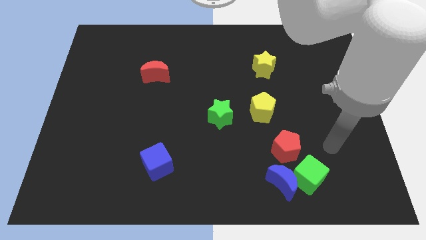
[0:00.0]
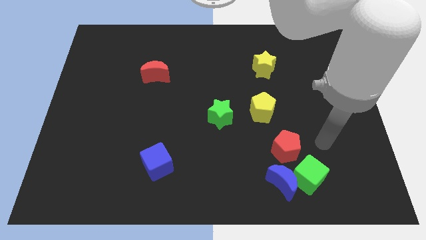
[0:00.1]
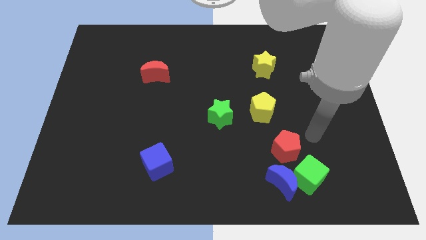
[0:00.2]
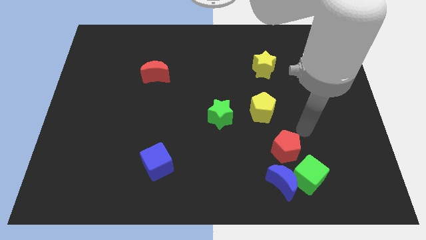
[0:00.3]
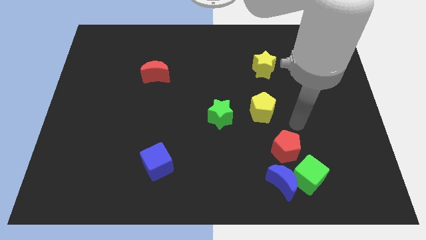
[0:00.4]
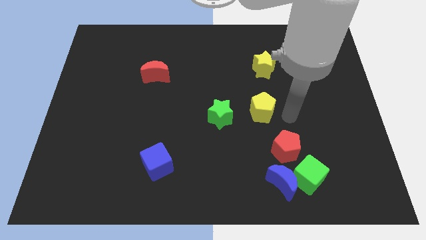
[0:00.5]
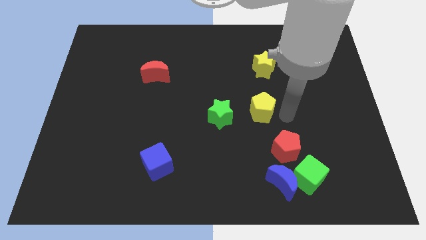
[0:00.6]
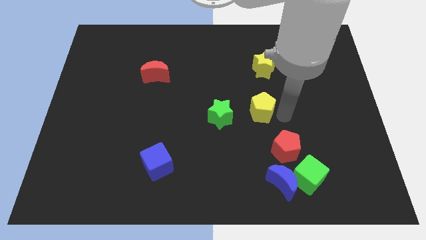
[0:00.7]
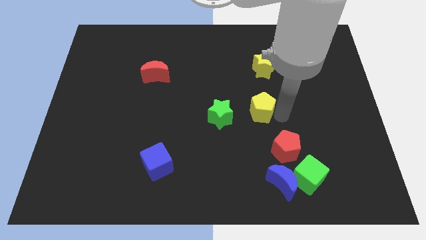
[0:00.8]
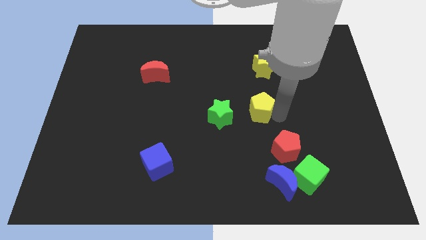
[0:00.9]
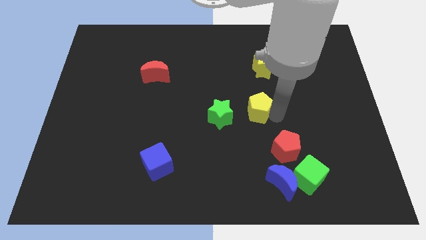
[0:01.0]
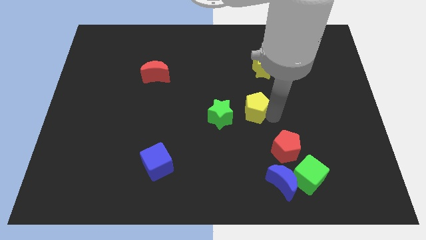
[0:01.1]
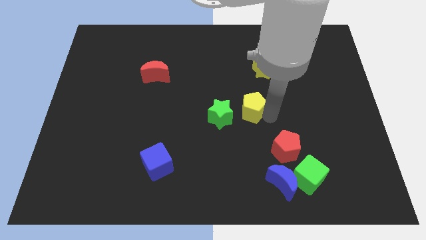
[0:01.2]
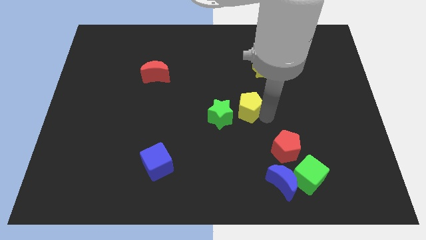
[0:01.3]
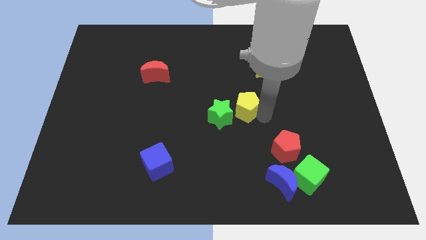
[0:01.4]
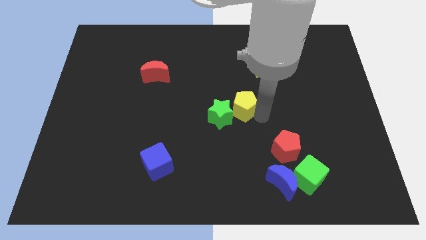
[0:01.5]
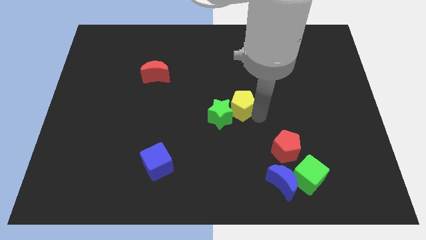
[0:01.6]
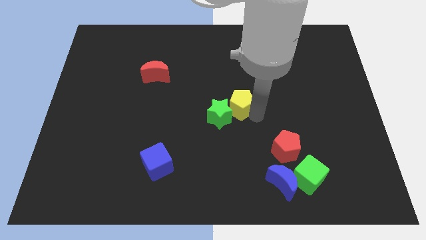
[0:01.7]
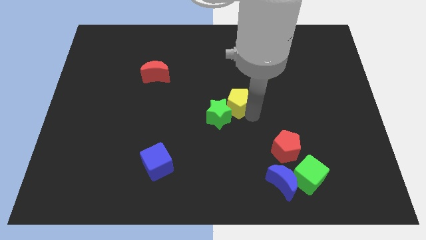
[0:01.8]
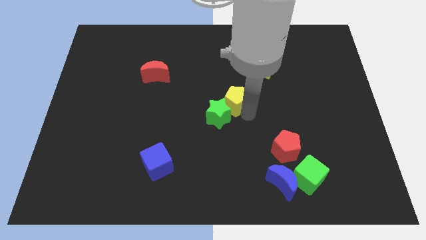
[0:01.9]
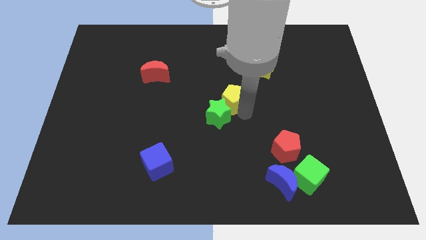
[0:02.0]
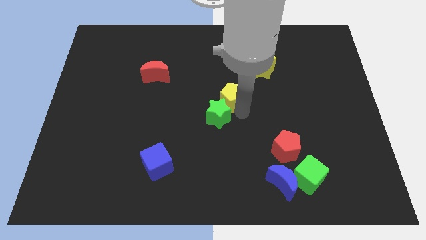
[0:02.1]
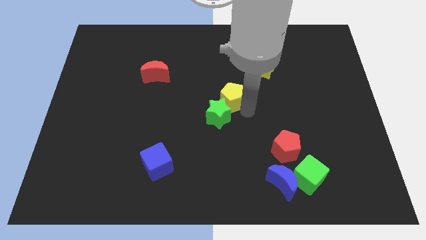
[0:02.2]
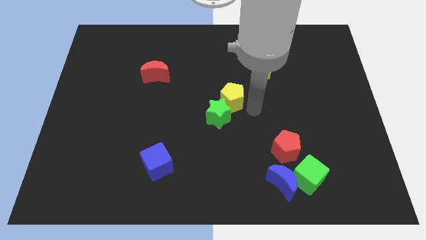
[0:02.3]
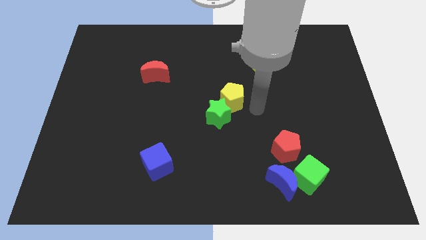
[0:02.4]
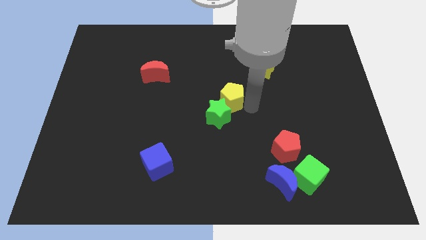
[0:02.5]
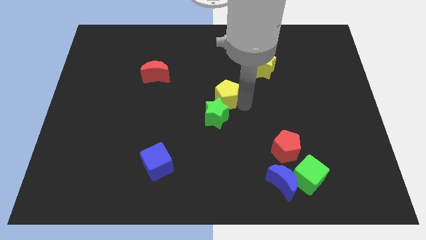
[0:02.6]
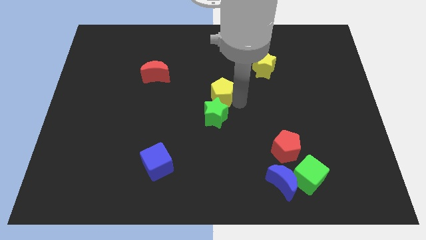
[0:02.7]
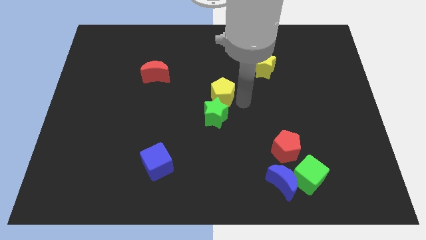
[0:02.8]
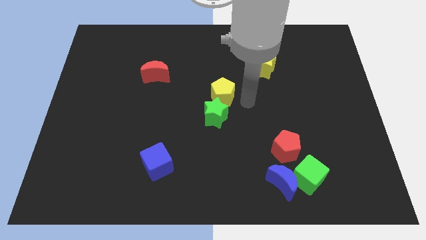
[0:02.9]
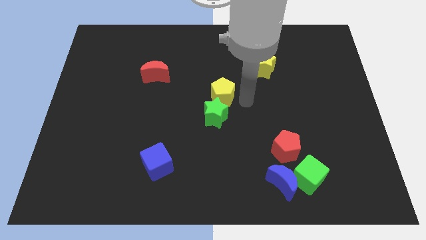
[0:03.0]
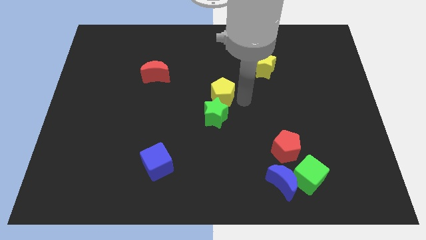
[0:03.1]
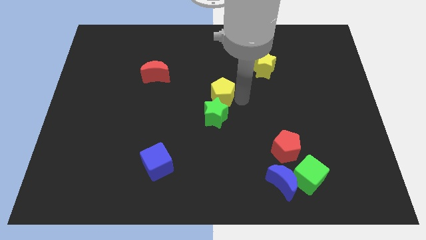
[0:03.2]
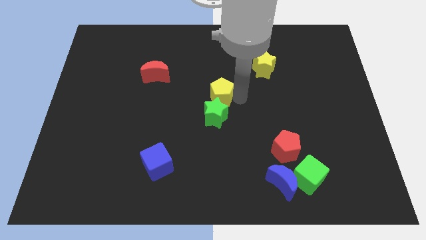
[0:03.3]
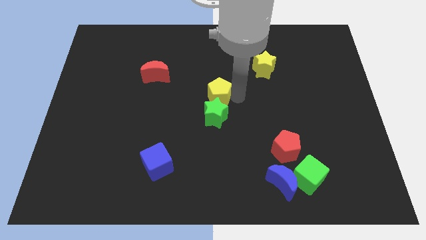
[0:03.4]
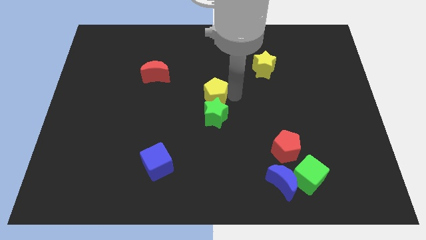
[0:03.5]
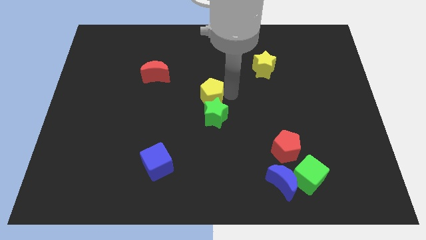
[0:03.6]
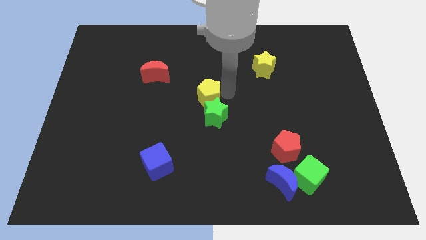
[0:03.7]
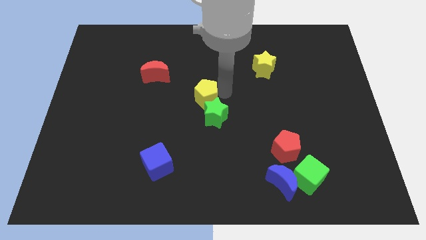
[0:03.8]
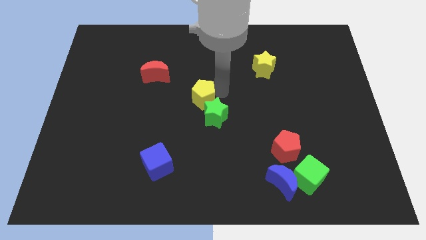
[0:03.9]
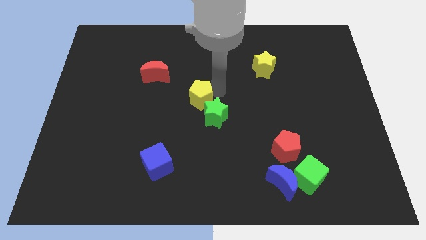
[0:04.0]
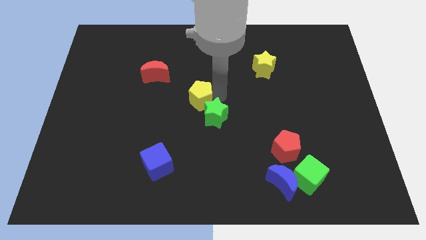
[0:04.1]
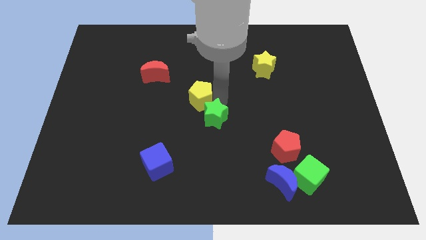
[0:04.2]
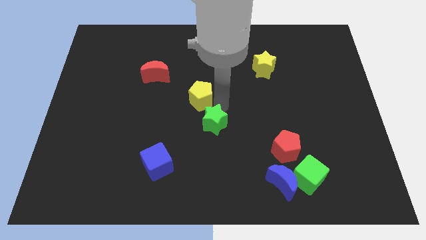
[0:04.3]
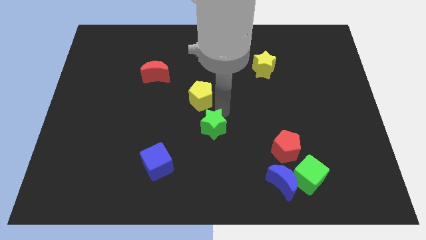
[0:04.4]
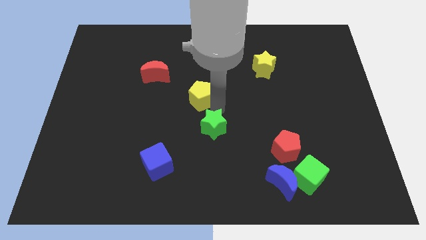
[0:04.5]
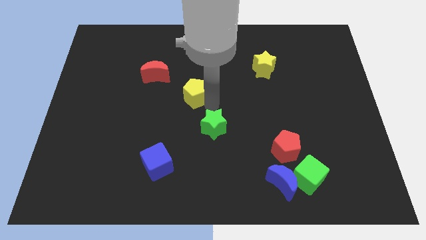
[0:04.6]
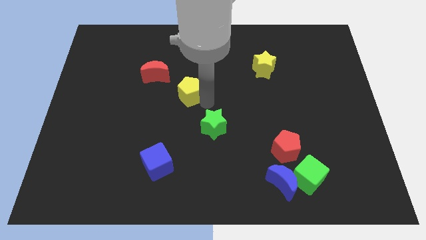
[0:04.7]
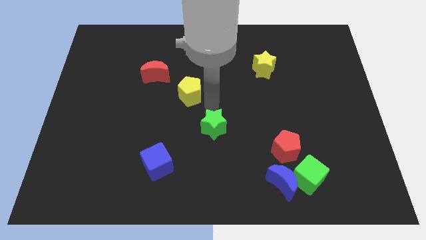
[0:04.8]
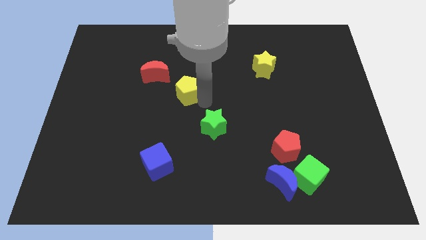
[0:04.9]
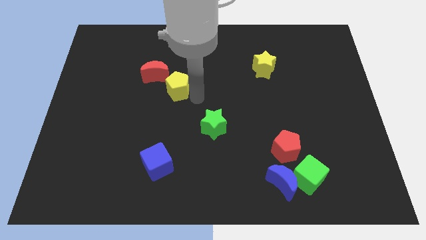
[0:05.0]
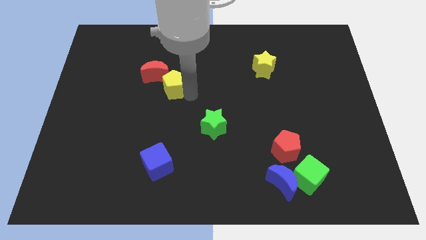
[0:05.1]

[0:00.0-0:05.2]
put the yellow pentagon next to the red moon

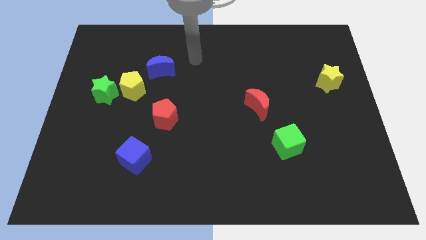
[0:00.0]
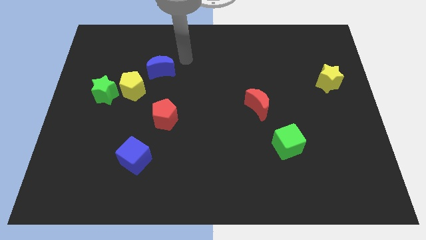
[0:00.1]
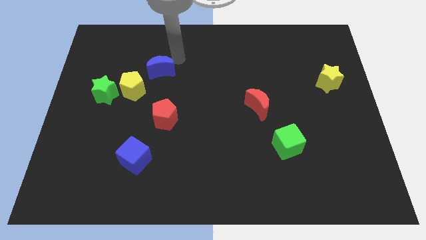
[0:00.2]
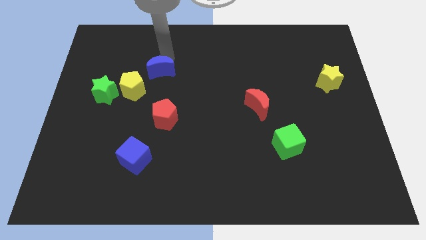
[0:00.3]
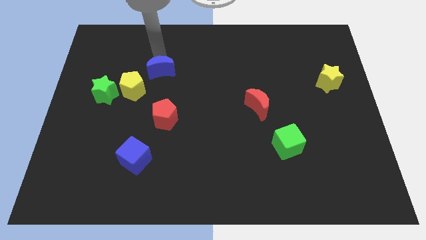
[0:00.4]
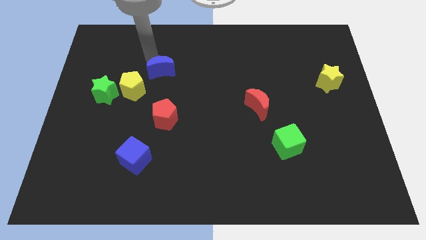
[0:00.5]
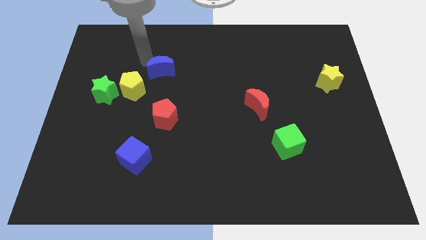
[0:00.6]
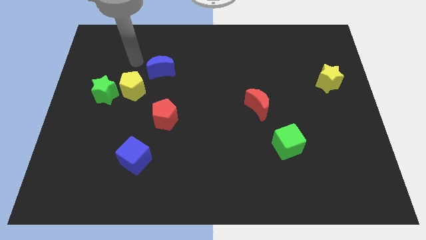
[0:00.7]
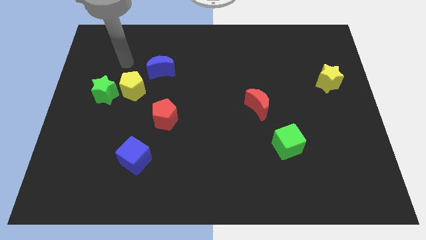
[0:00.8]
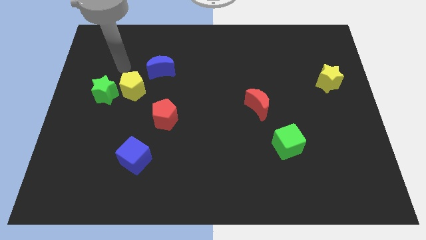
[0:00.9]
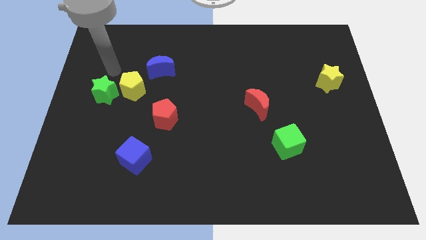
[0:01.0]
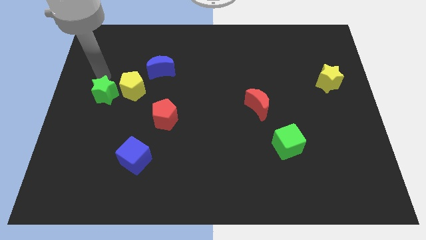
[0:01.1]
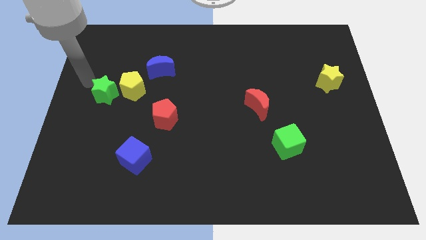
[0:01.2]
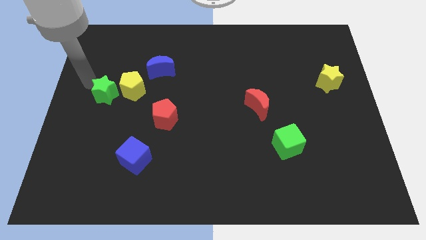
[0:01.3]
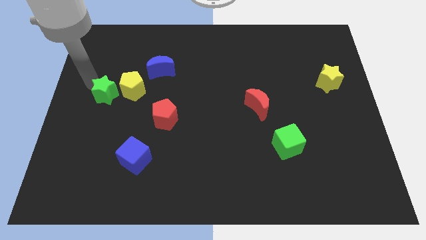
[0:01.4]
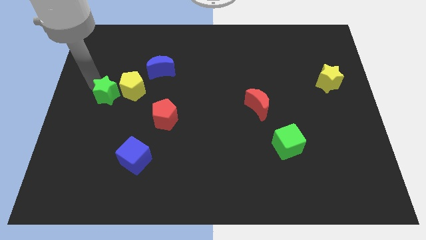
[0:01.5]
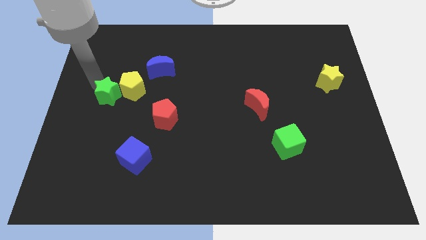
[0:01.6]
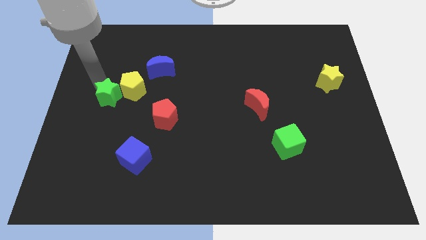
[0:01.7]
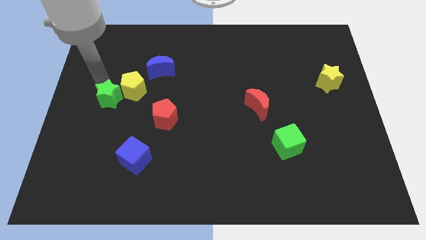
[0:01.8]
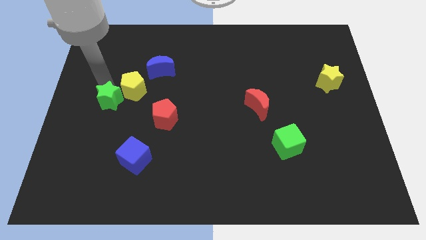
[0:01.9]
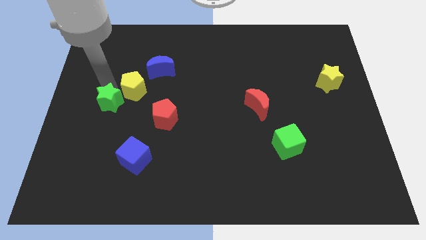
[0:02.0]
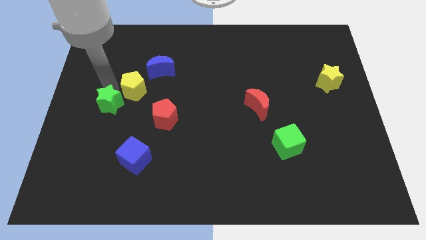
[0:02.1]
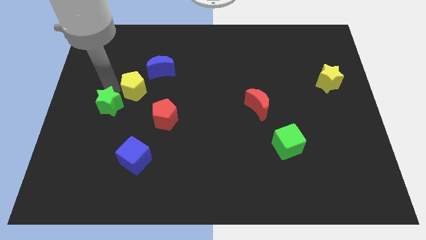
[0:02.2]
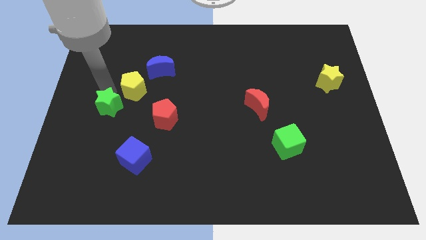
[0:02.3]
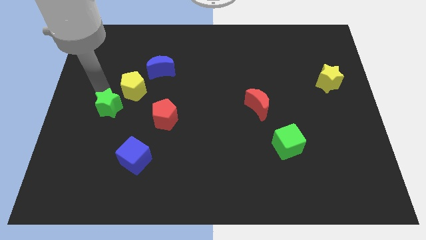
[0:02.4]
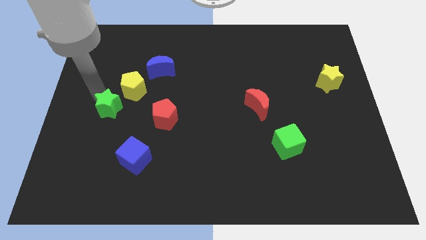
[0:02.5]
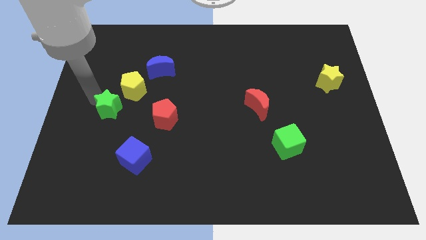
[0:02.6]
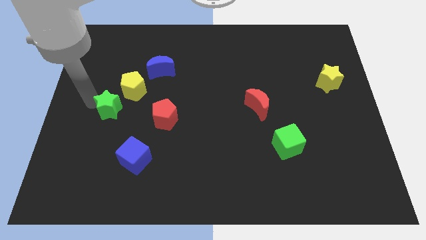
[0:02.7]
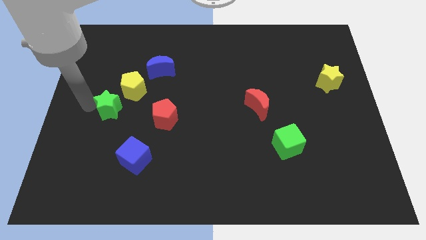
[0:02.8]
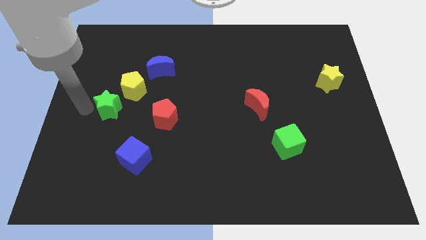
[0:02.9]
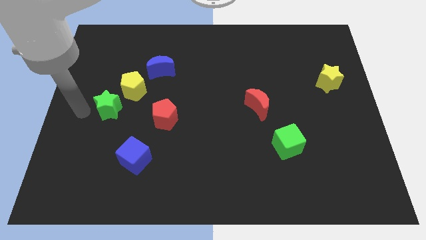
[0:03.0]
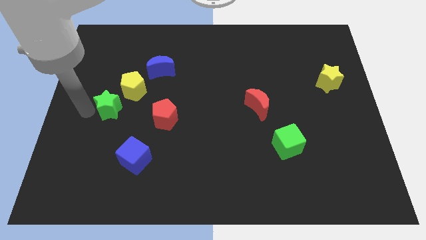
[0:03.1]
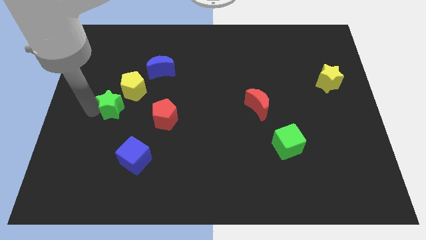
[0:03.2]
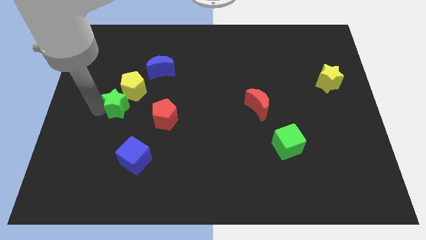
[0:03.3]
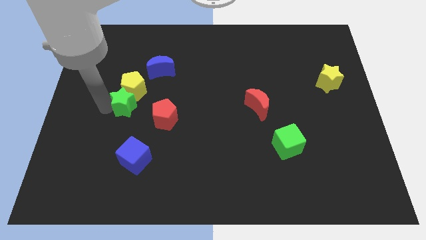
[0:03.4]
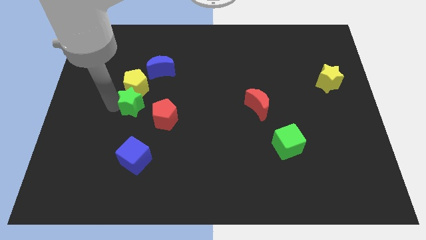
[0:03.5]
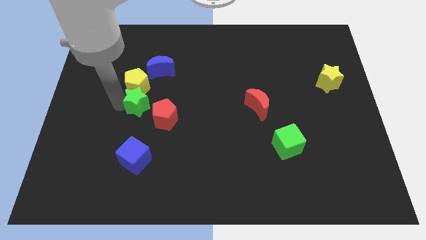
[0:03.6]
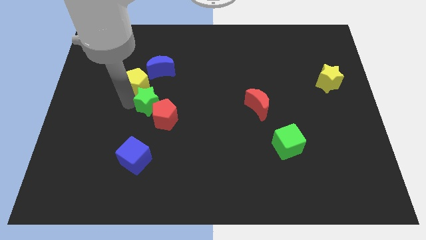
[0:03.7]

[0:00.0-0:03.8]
push the green star next to the red pentagon
